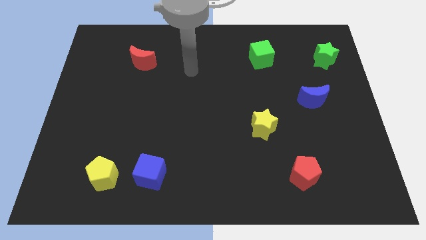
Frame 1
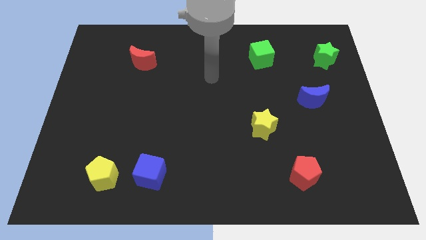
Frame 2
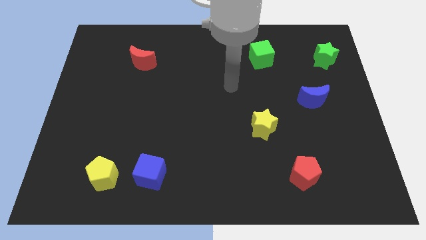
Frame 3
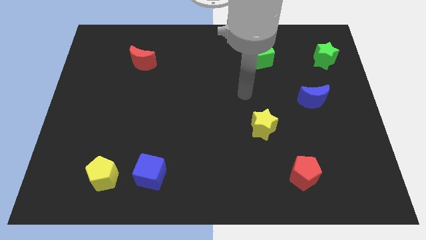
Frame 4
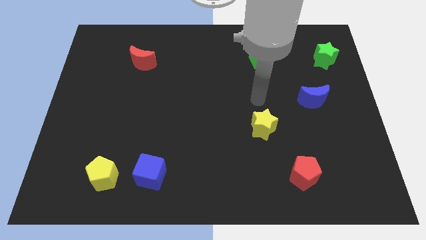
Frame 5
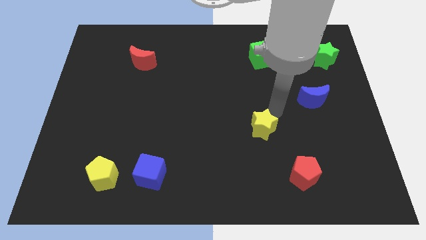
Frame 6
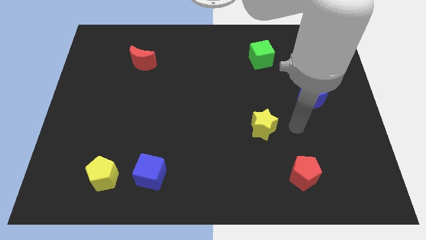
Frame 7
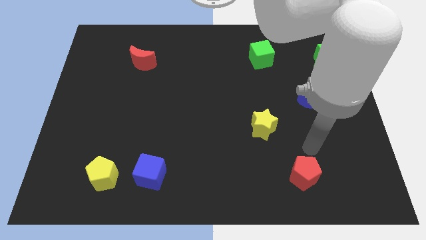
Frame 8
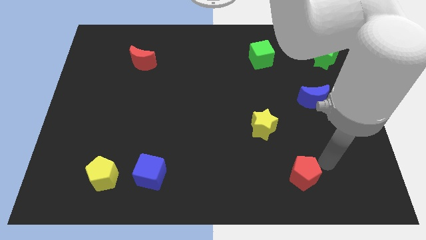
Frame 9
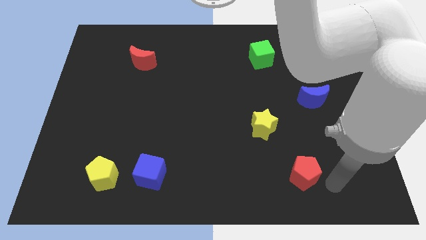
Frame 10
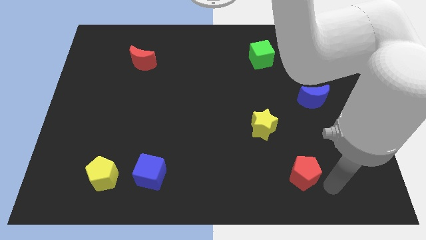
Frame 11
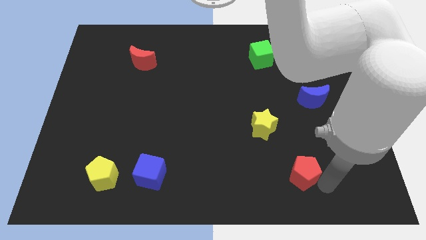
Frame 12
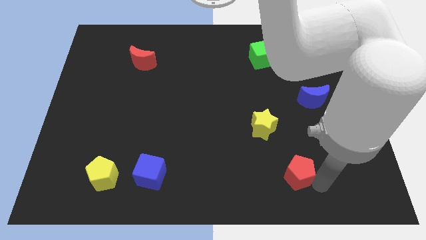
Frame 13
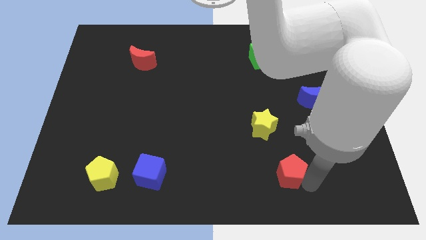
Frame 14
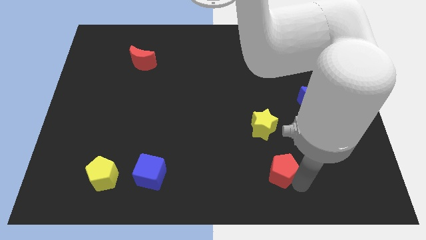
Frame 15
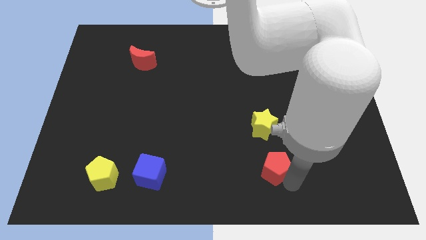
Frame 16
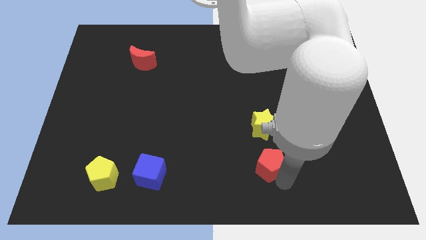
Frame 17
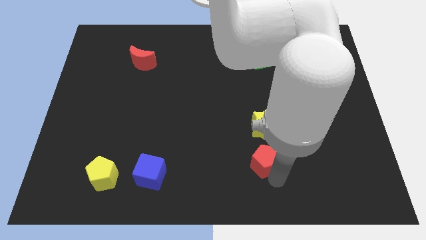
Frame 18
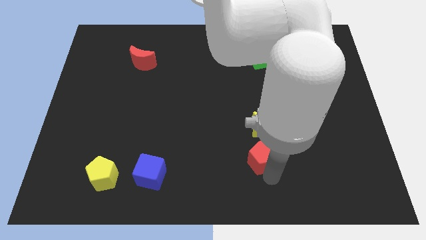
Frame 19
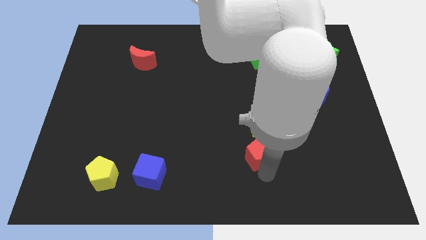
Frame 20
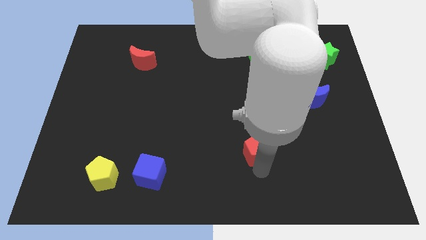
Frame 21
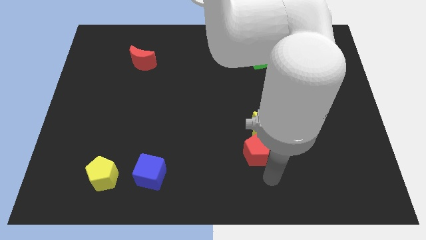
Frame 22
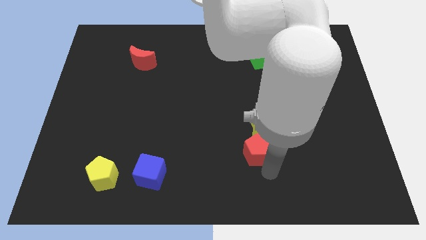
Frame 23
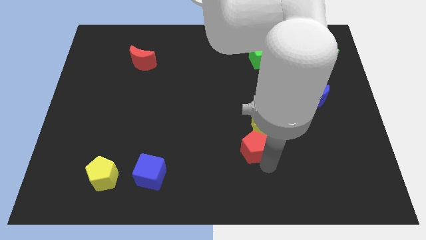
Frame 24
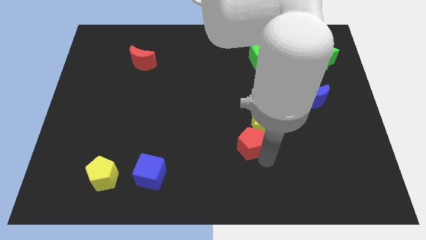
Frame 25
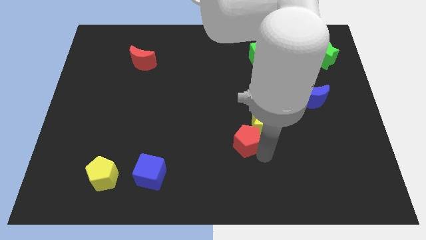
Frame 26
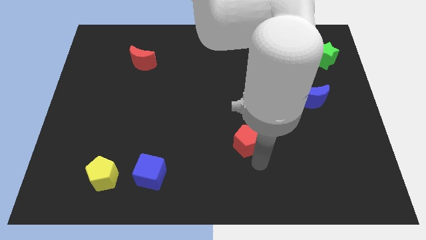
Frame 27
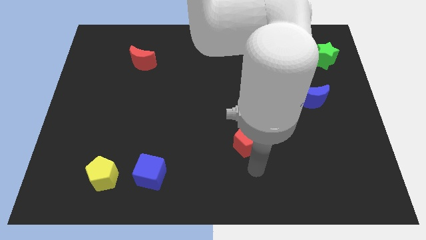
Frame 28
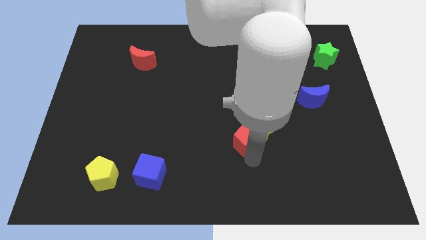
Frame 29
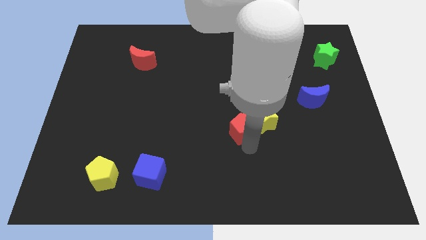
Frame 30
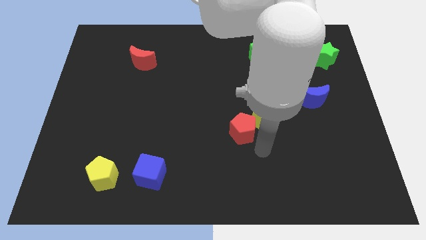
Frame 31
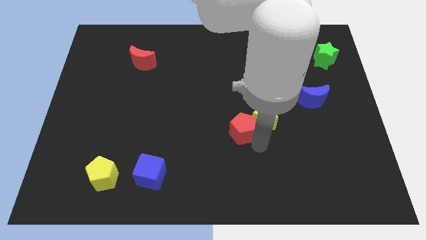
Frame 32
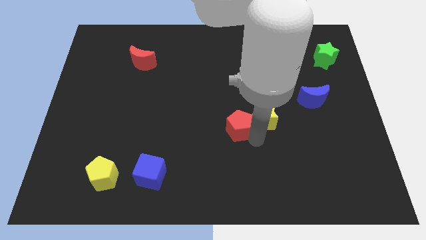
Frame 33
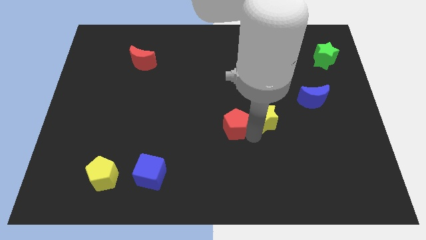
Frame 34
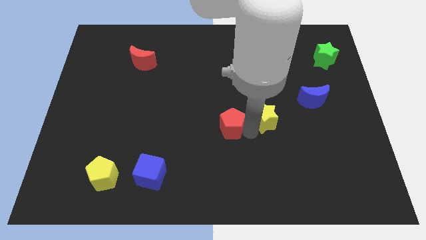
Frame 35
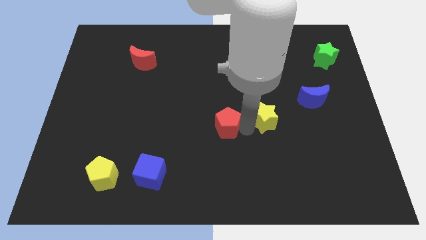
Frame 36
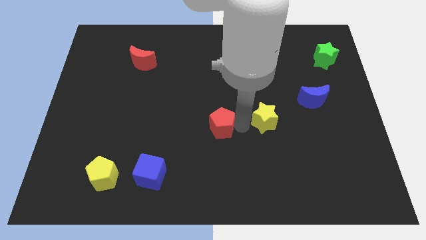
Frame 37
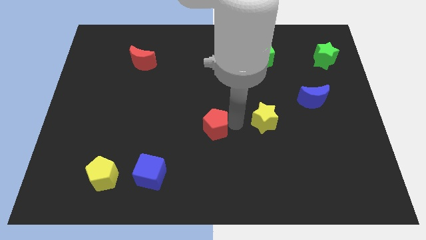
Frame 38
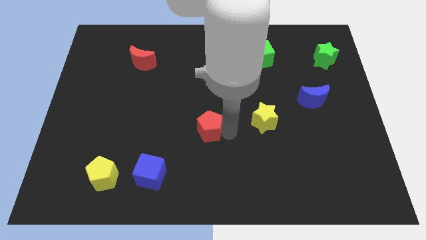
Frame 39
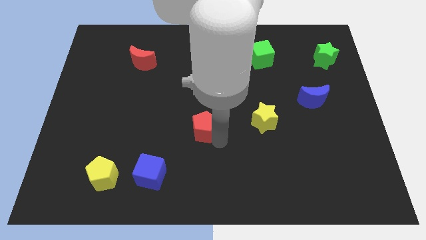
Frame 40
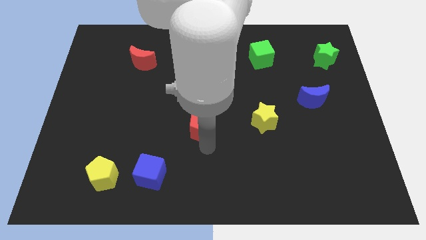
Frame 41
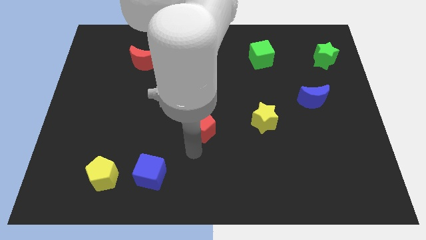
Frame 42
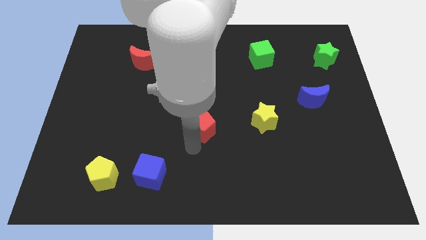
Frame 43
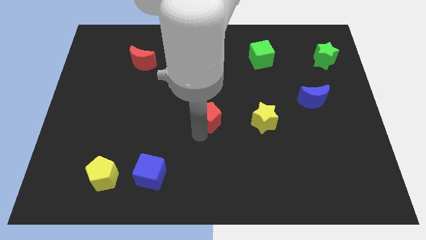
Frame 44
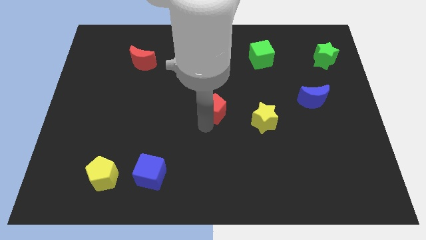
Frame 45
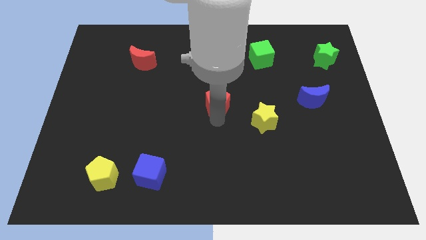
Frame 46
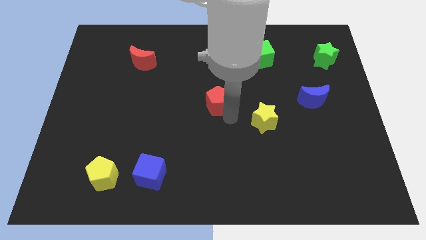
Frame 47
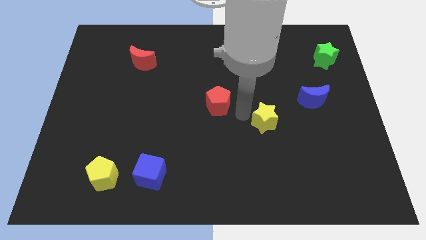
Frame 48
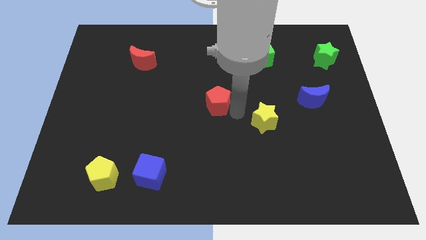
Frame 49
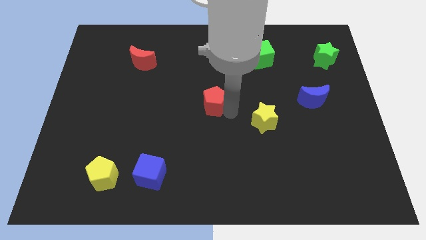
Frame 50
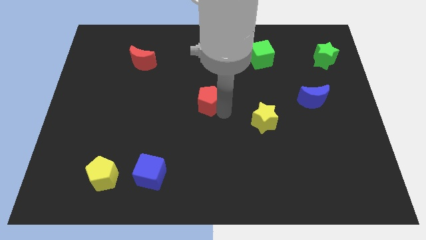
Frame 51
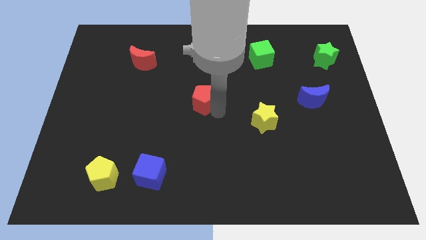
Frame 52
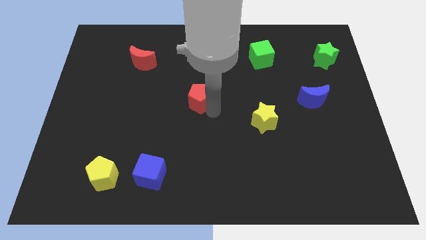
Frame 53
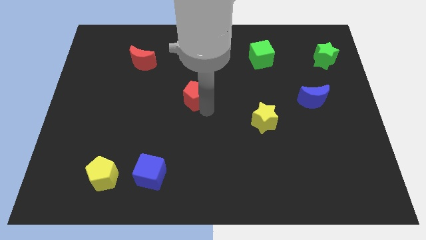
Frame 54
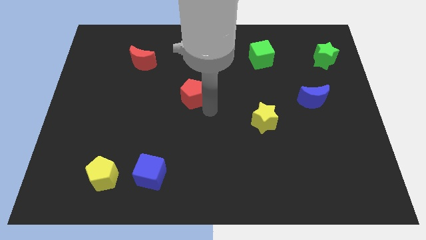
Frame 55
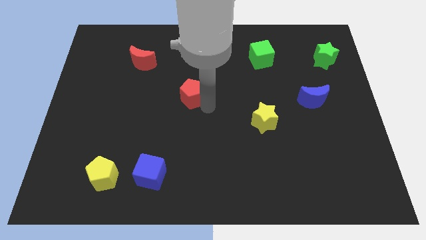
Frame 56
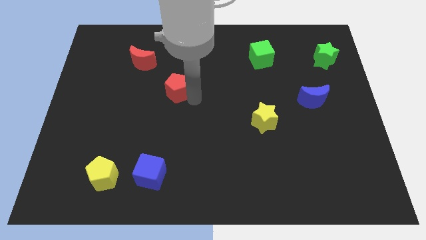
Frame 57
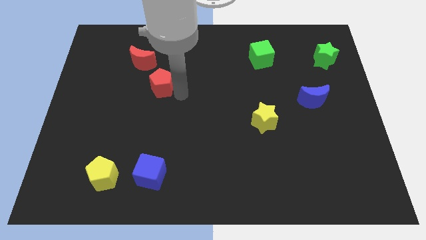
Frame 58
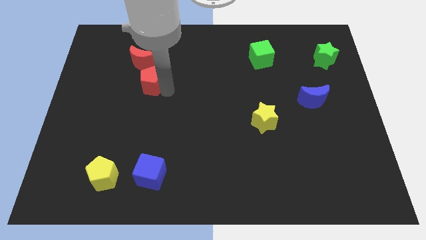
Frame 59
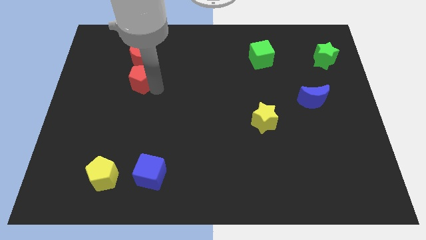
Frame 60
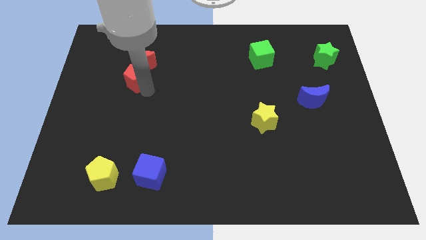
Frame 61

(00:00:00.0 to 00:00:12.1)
slide the red pentagon close to the red moon

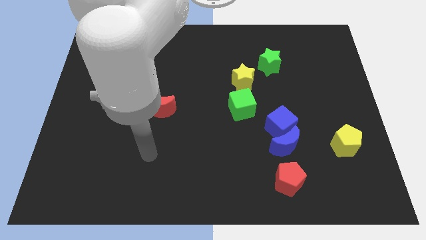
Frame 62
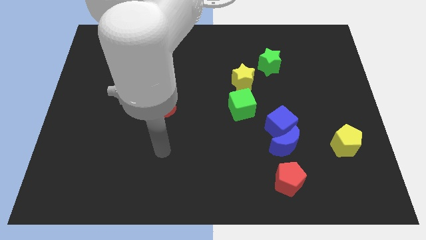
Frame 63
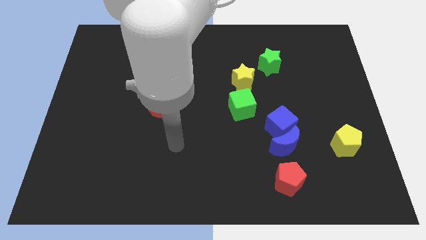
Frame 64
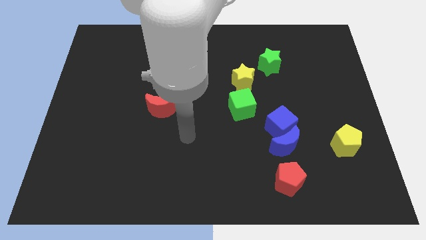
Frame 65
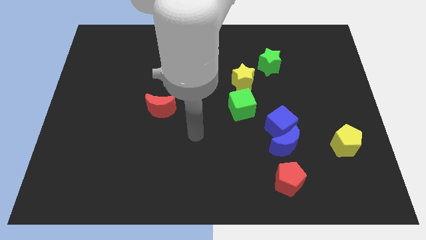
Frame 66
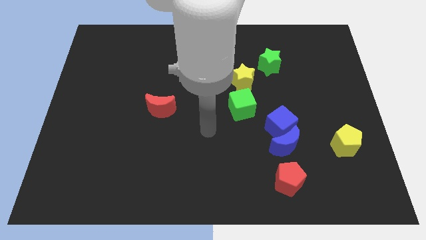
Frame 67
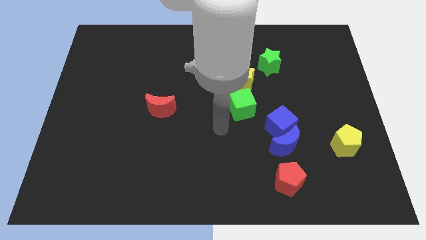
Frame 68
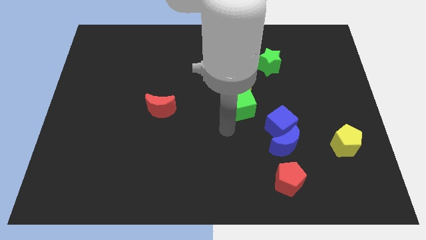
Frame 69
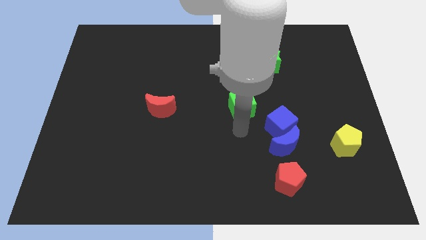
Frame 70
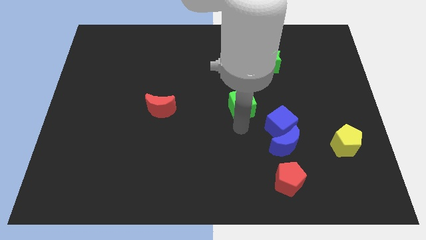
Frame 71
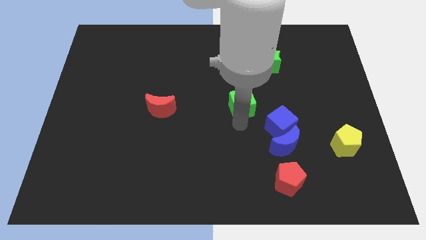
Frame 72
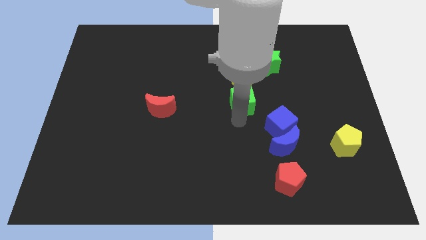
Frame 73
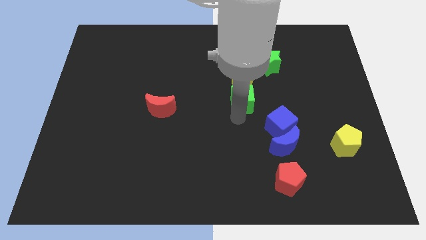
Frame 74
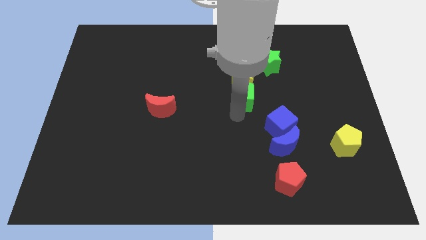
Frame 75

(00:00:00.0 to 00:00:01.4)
slide the green cube towards the yellow star
